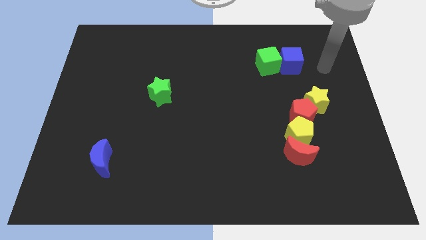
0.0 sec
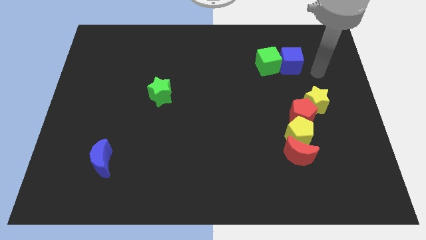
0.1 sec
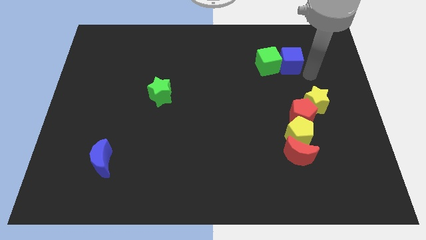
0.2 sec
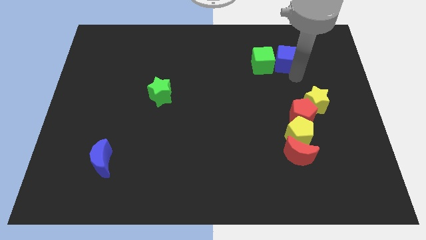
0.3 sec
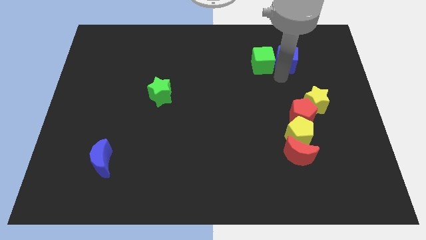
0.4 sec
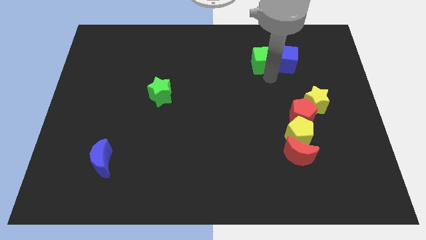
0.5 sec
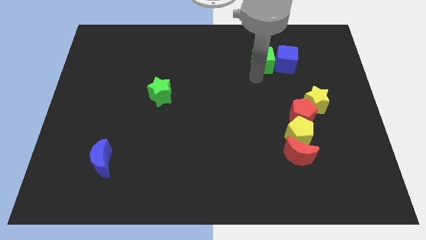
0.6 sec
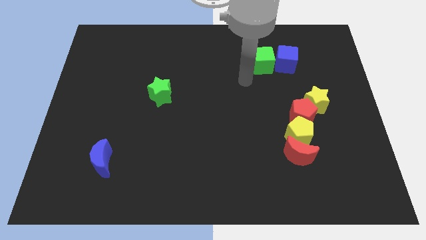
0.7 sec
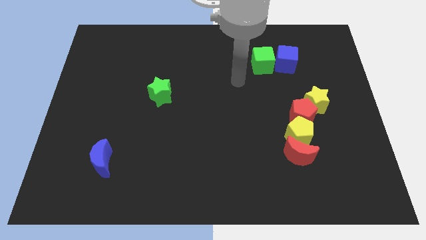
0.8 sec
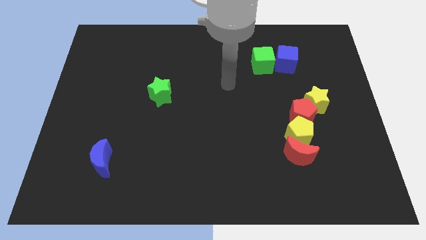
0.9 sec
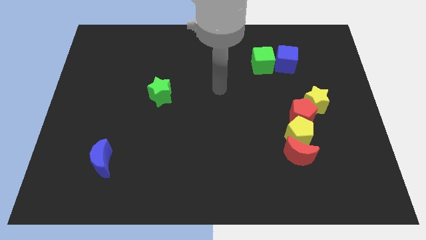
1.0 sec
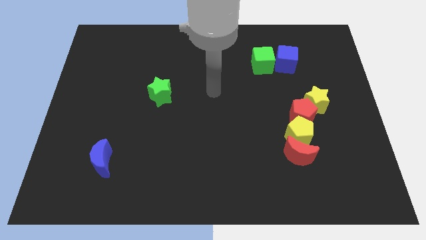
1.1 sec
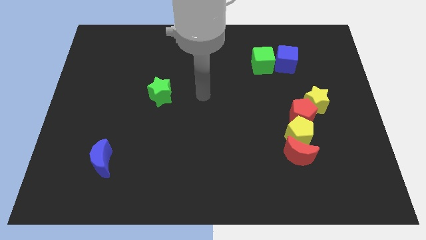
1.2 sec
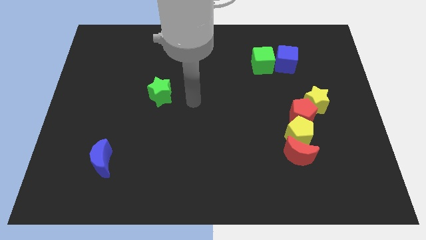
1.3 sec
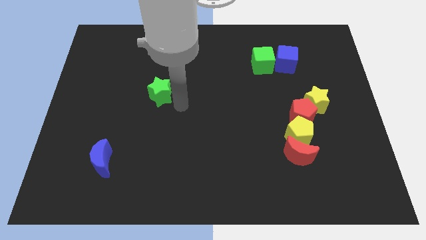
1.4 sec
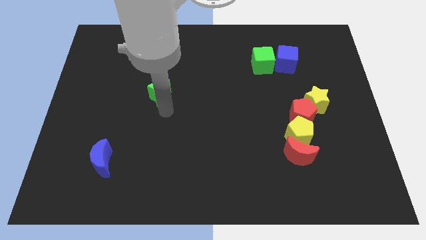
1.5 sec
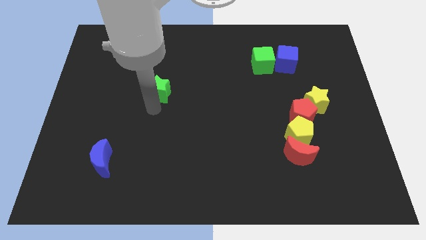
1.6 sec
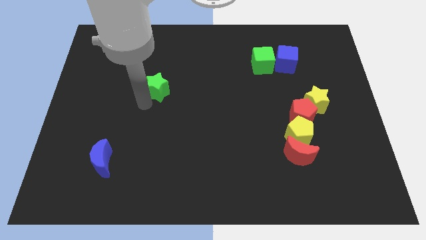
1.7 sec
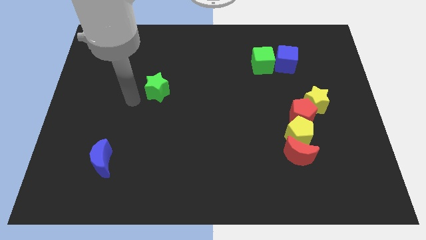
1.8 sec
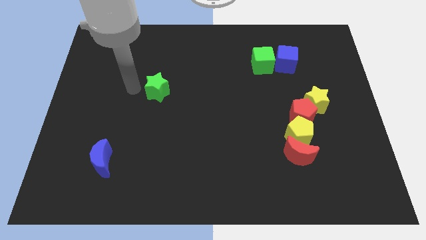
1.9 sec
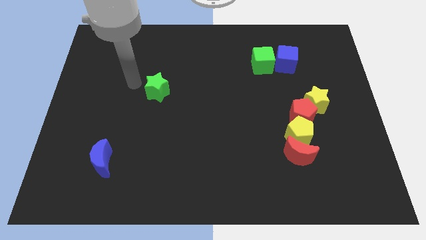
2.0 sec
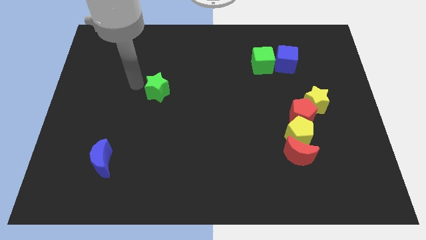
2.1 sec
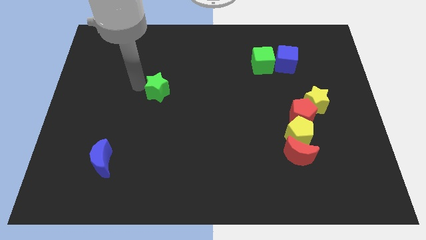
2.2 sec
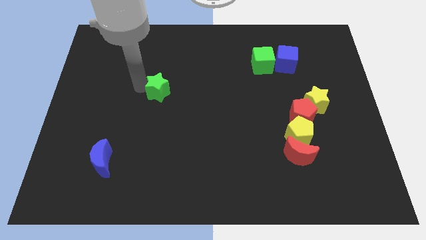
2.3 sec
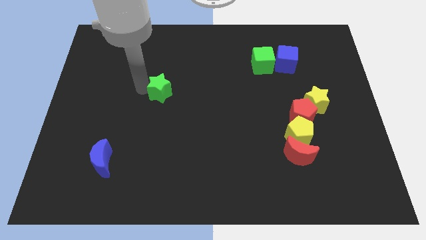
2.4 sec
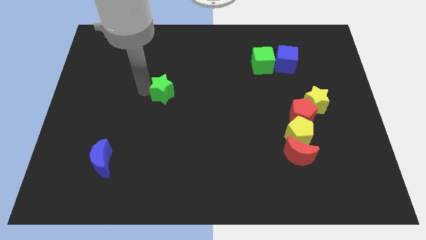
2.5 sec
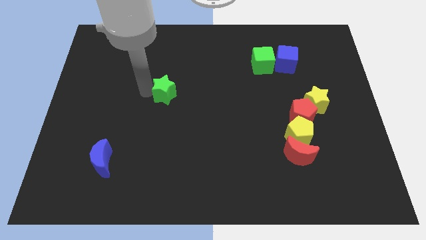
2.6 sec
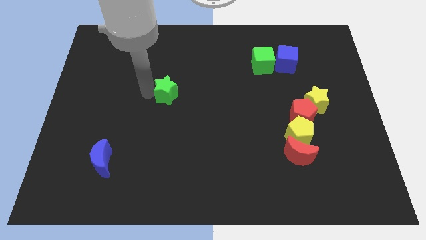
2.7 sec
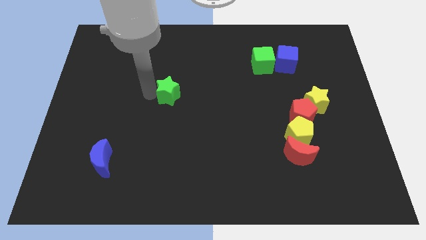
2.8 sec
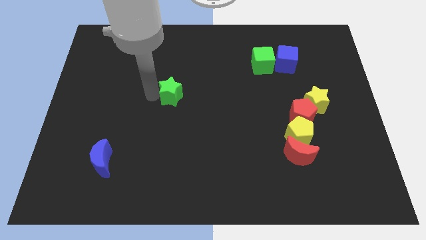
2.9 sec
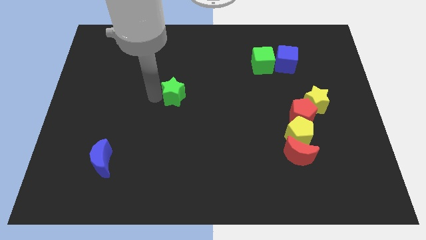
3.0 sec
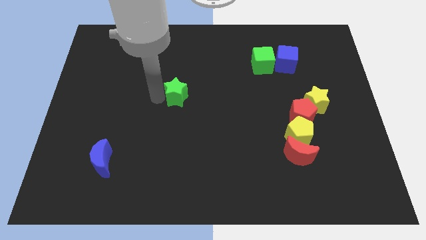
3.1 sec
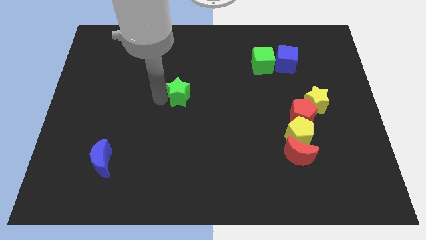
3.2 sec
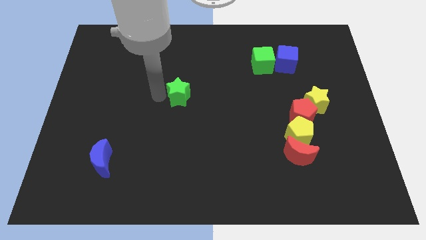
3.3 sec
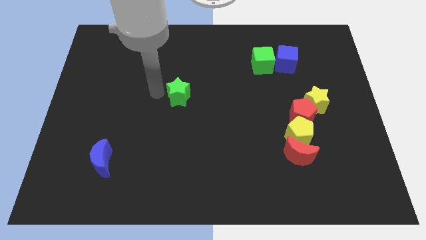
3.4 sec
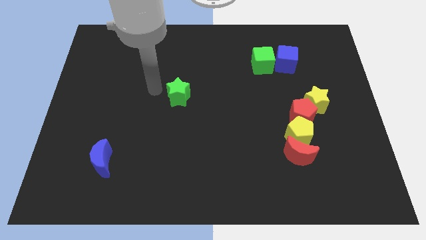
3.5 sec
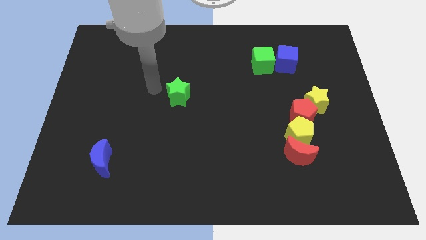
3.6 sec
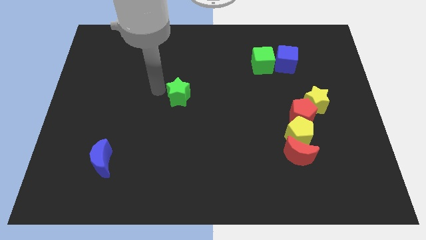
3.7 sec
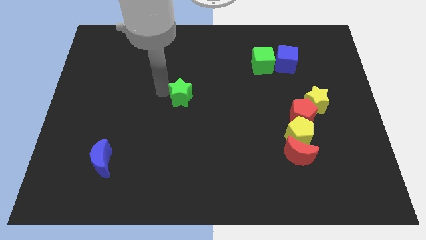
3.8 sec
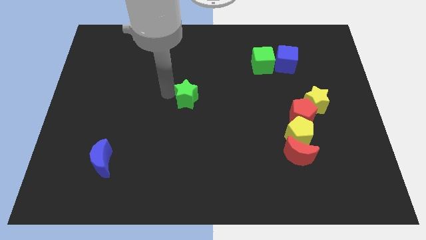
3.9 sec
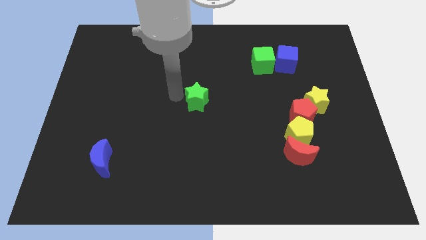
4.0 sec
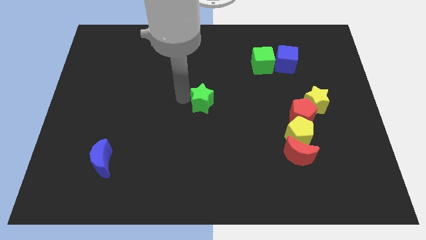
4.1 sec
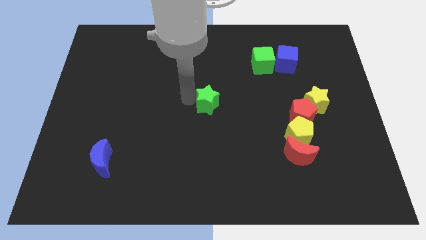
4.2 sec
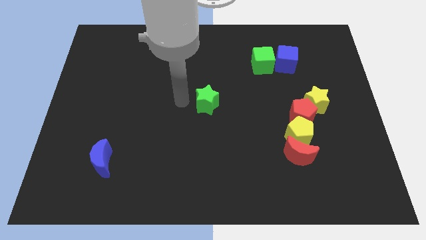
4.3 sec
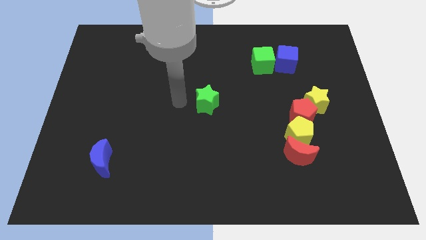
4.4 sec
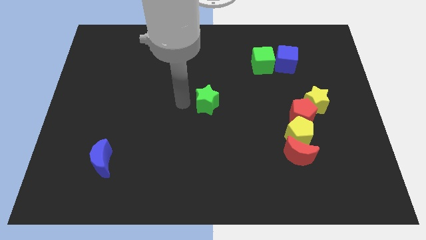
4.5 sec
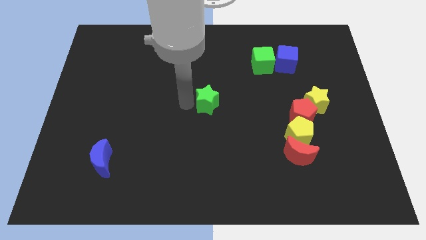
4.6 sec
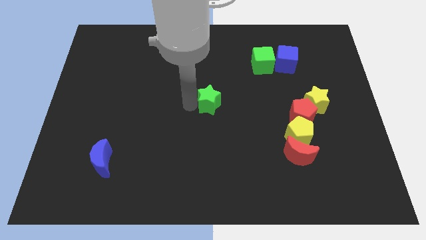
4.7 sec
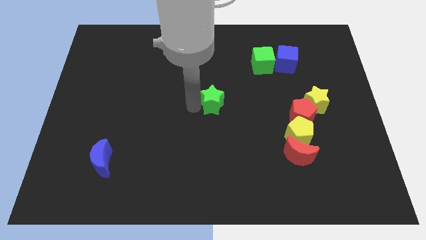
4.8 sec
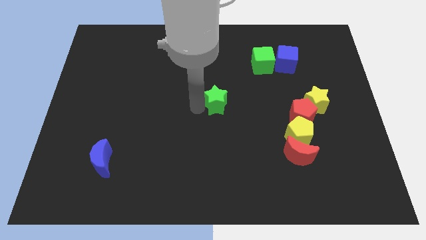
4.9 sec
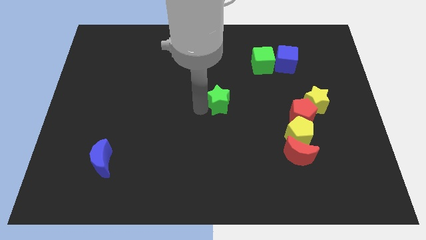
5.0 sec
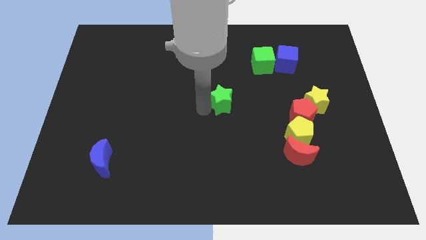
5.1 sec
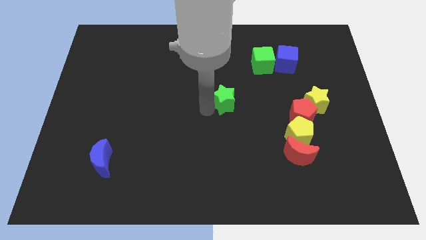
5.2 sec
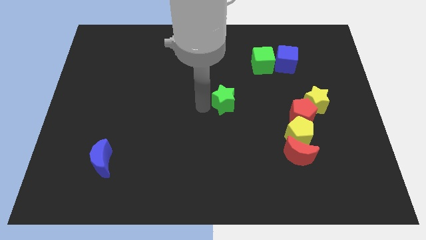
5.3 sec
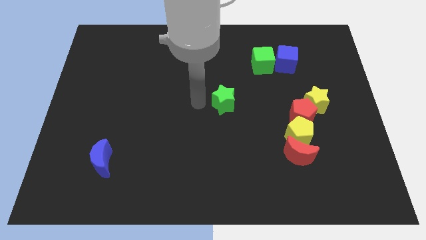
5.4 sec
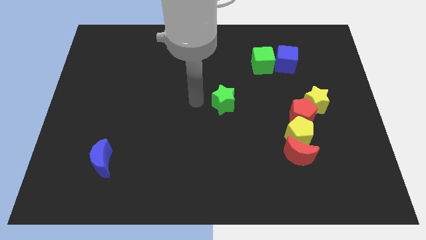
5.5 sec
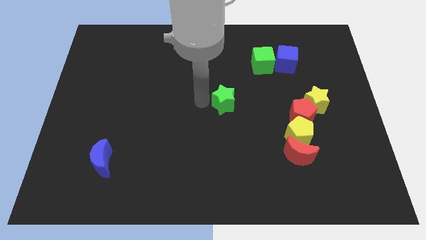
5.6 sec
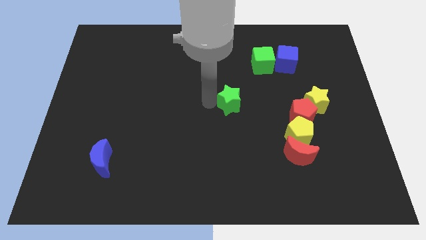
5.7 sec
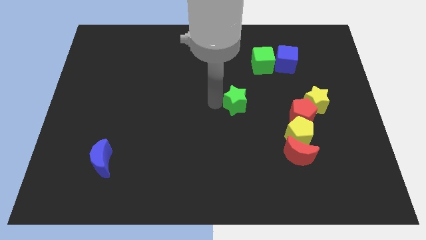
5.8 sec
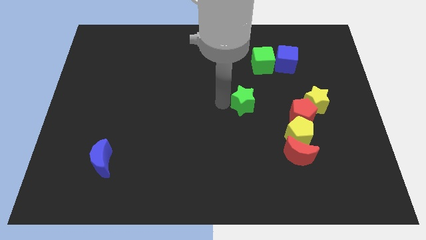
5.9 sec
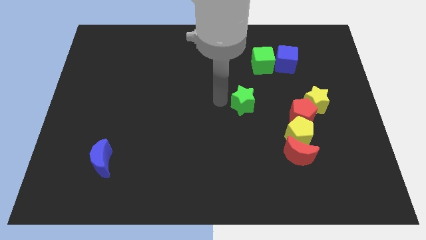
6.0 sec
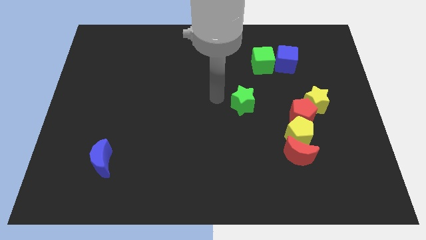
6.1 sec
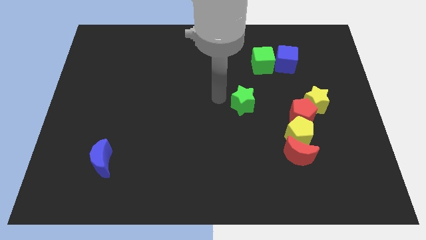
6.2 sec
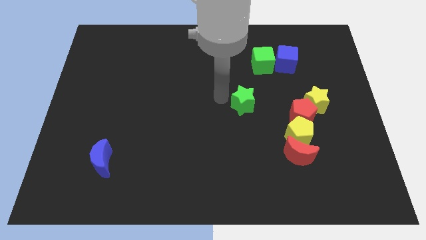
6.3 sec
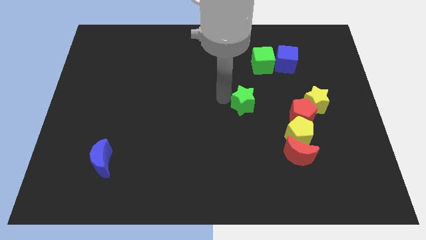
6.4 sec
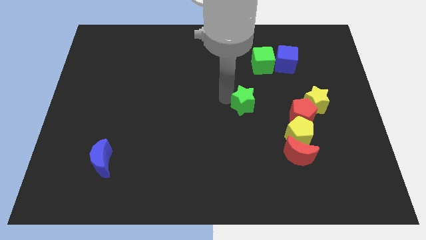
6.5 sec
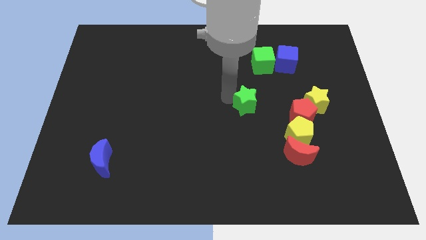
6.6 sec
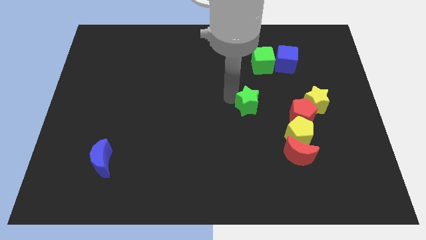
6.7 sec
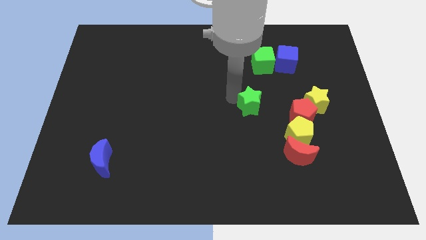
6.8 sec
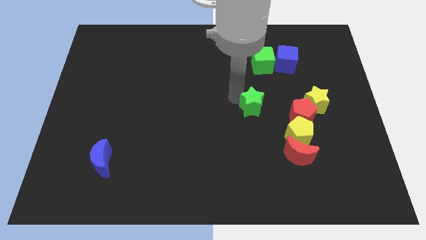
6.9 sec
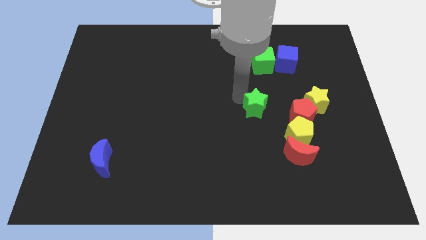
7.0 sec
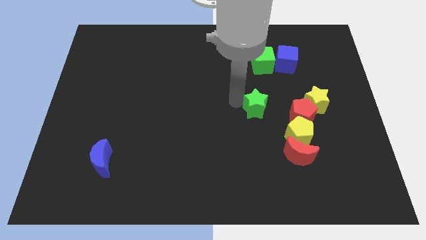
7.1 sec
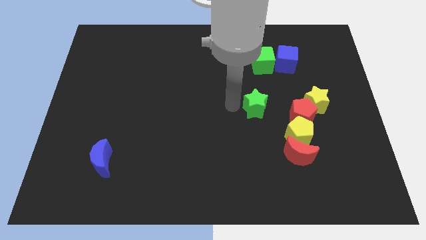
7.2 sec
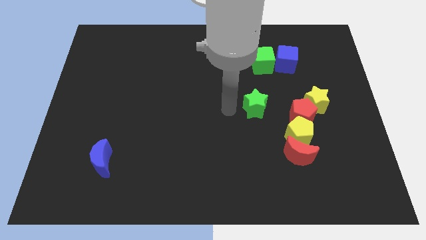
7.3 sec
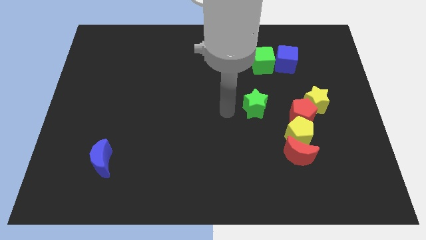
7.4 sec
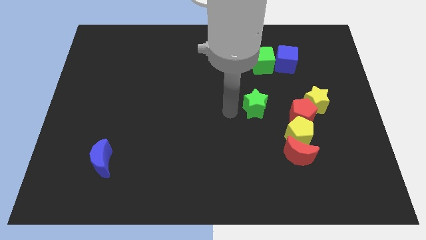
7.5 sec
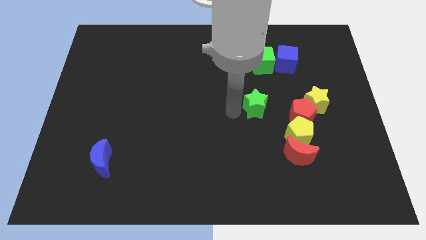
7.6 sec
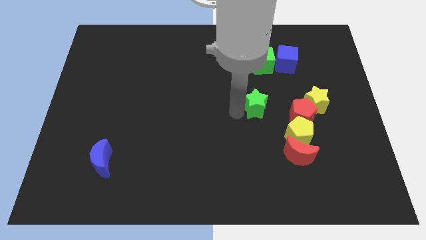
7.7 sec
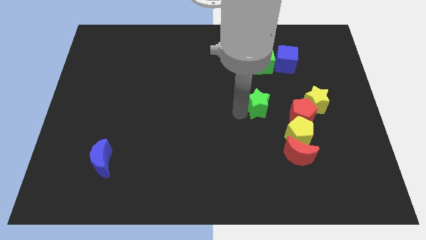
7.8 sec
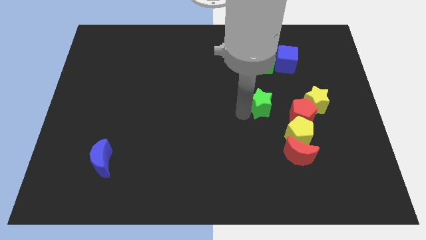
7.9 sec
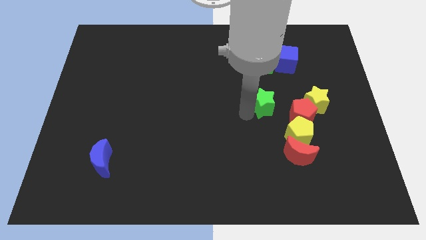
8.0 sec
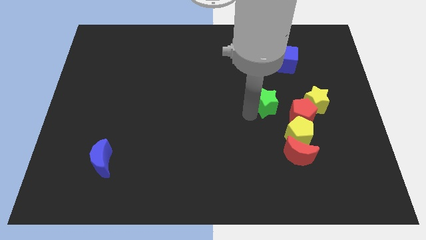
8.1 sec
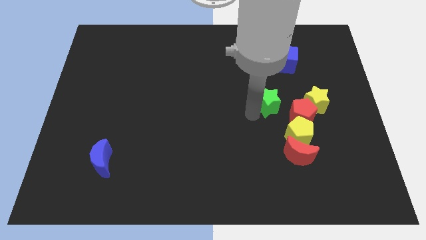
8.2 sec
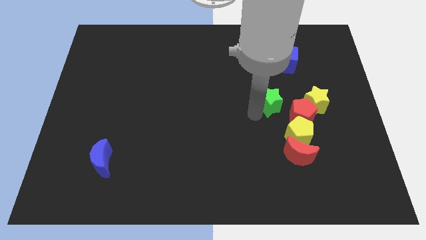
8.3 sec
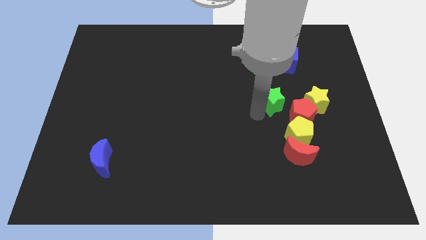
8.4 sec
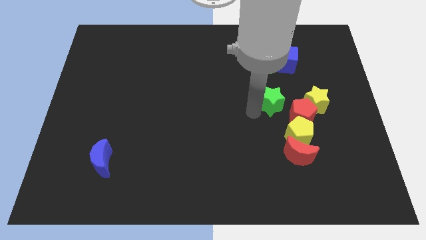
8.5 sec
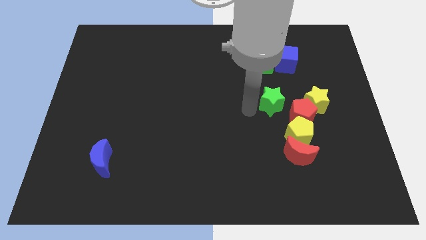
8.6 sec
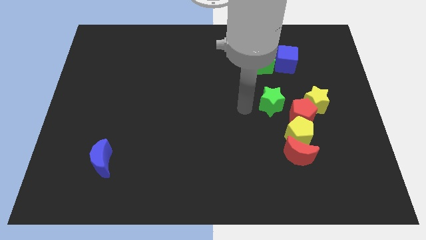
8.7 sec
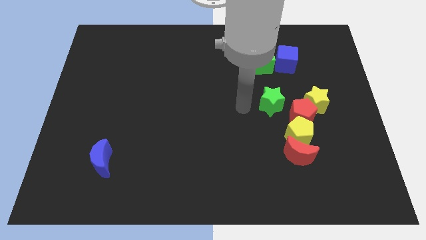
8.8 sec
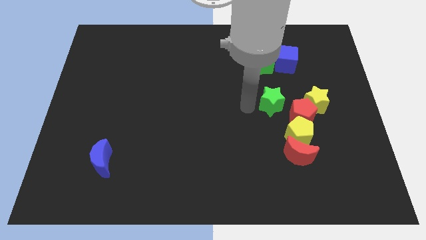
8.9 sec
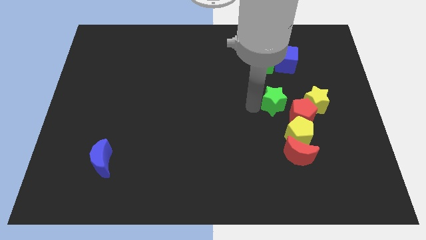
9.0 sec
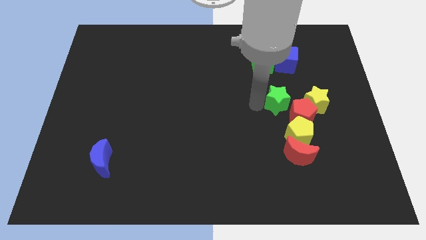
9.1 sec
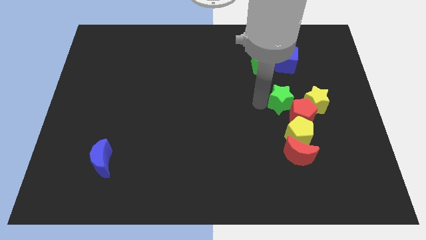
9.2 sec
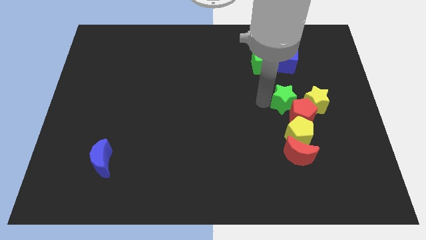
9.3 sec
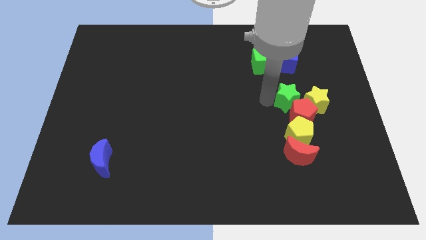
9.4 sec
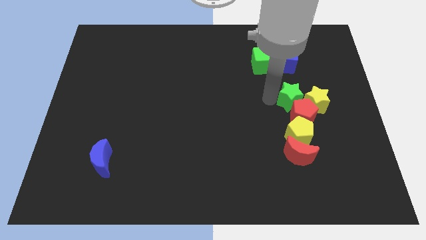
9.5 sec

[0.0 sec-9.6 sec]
move the green star close to the yellow star
